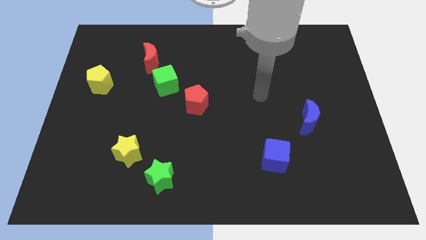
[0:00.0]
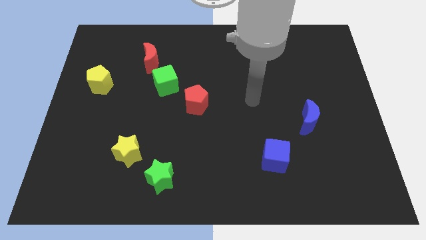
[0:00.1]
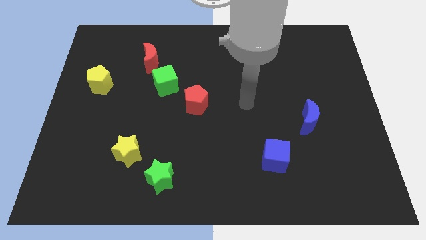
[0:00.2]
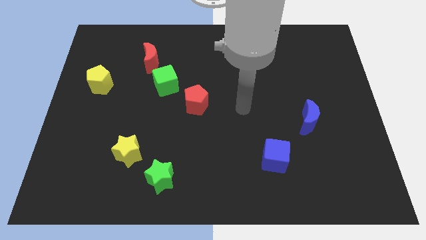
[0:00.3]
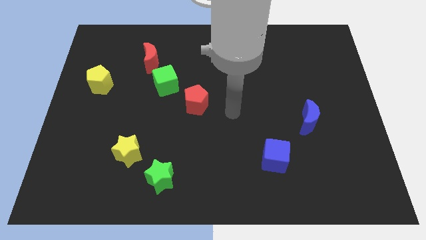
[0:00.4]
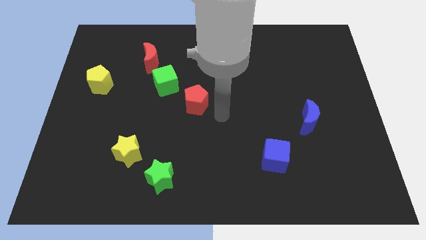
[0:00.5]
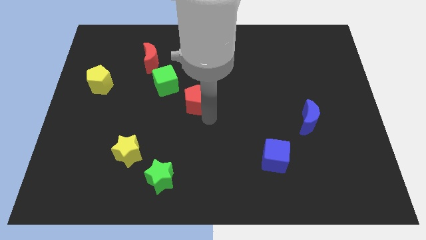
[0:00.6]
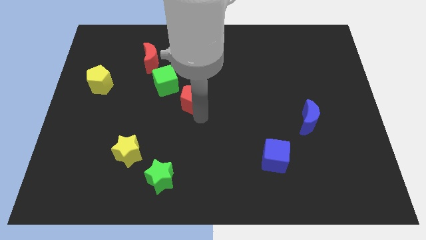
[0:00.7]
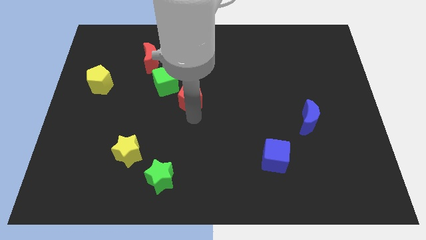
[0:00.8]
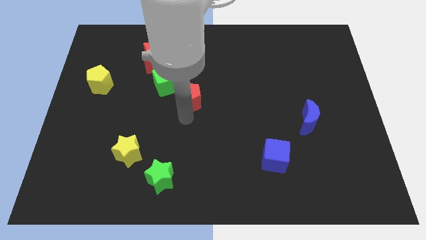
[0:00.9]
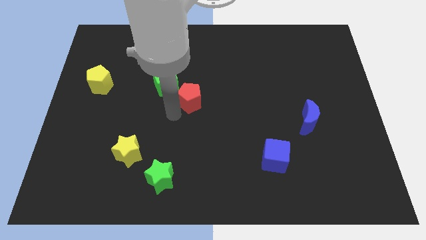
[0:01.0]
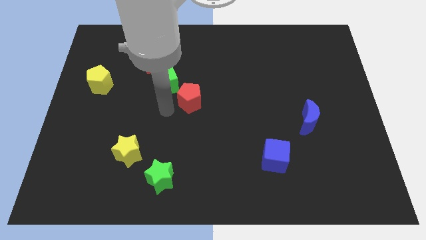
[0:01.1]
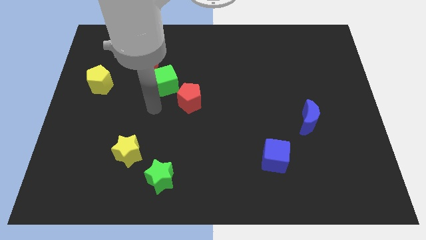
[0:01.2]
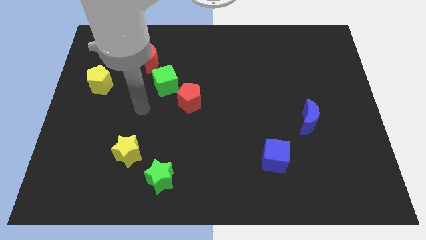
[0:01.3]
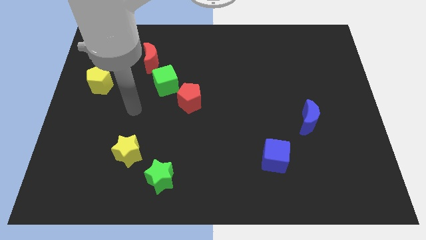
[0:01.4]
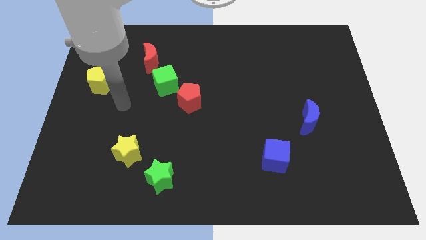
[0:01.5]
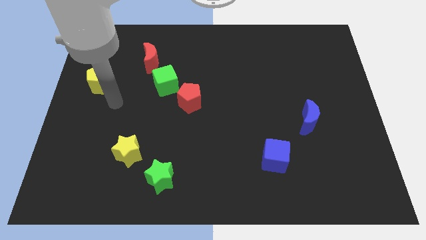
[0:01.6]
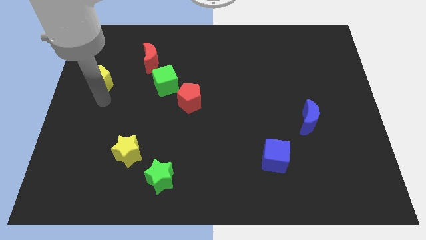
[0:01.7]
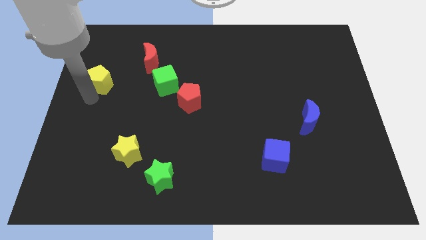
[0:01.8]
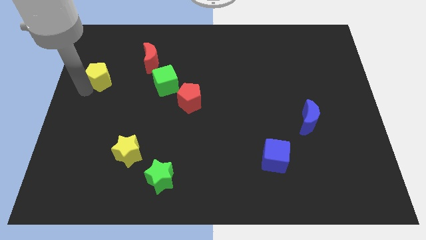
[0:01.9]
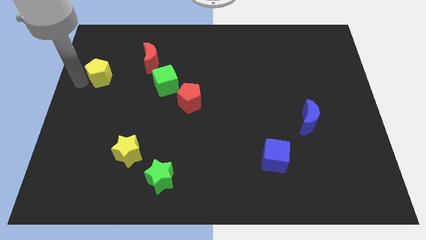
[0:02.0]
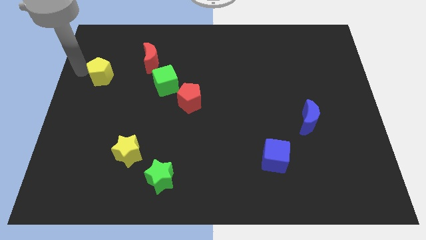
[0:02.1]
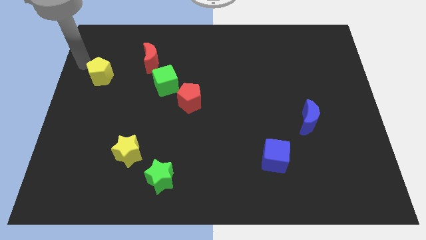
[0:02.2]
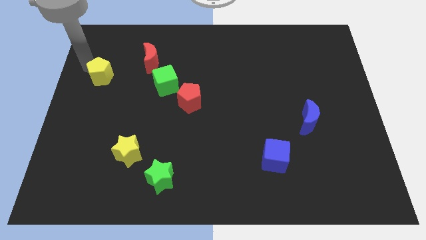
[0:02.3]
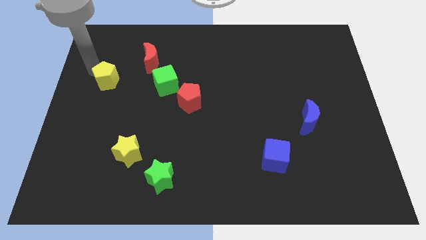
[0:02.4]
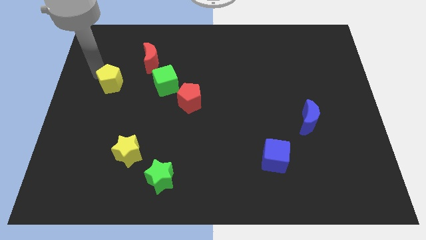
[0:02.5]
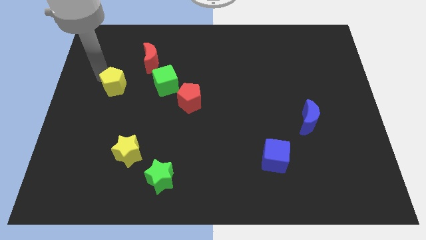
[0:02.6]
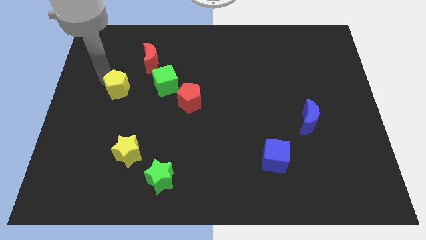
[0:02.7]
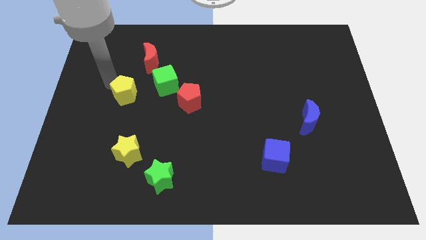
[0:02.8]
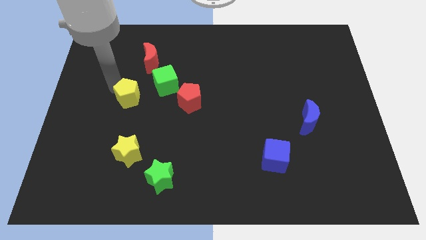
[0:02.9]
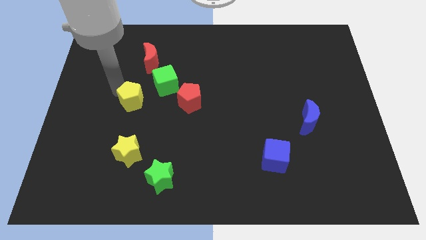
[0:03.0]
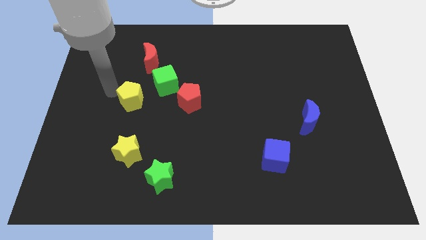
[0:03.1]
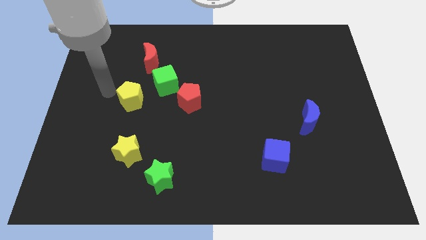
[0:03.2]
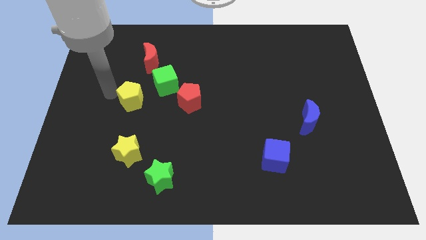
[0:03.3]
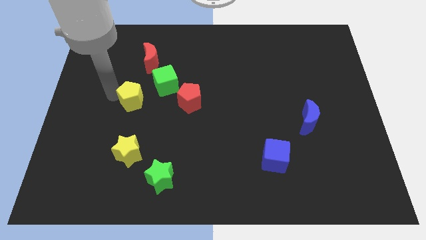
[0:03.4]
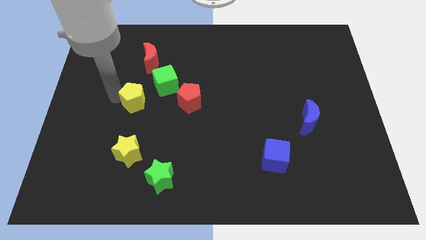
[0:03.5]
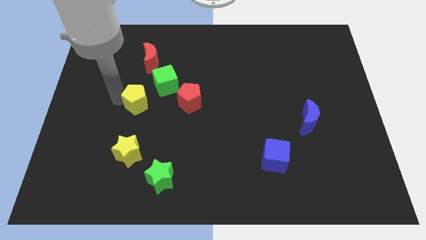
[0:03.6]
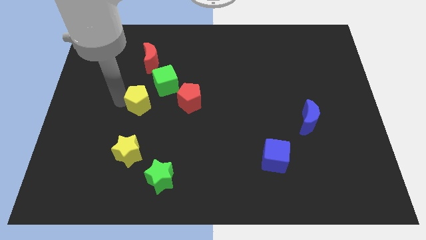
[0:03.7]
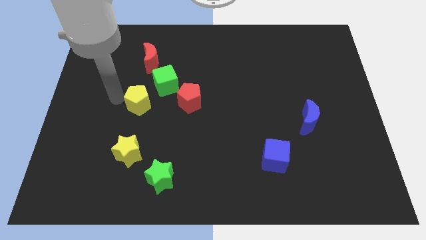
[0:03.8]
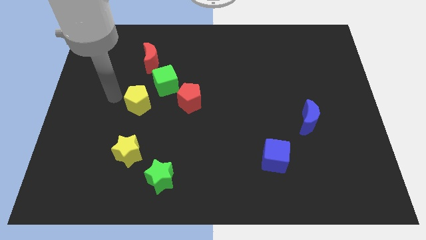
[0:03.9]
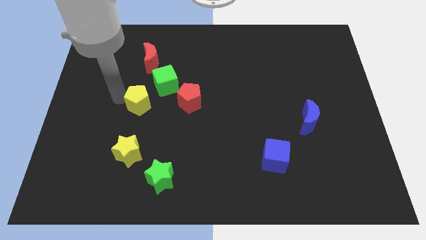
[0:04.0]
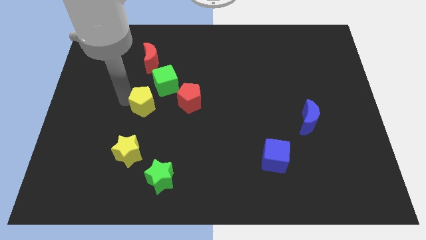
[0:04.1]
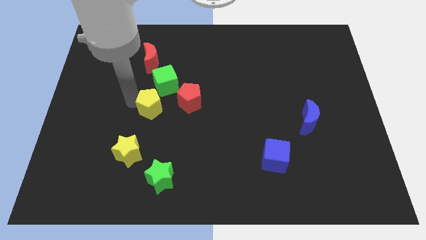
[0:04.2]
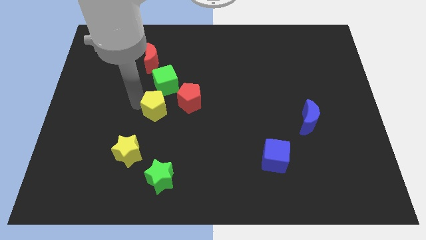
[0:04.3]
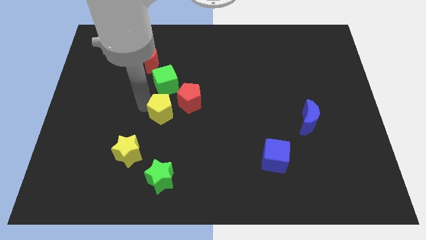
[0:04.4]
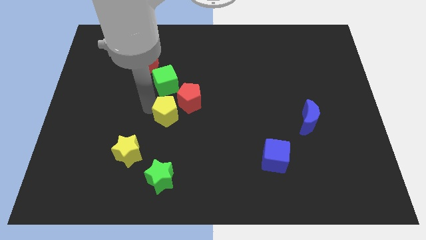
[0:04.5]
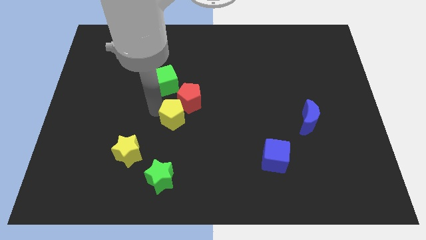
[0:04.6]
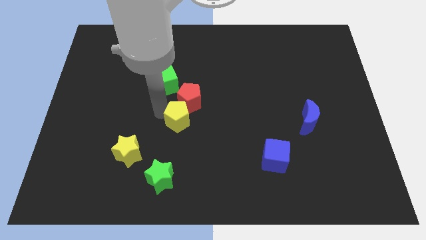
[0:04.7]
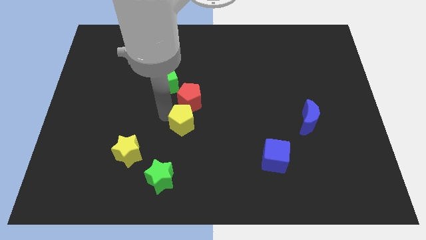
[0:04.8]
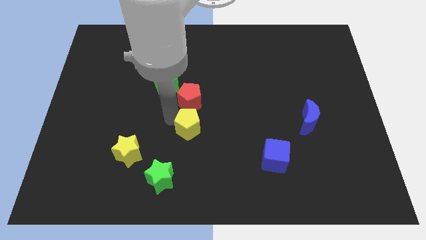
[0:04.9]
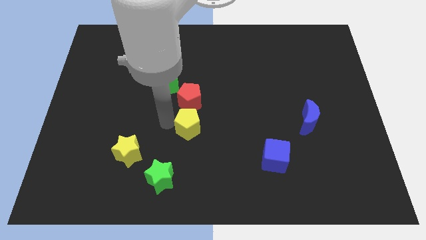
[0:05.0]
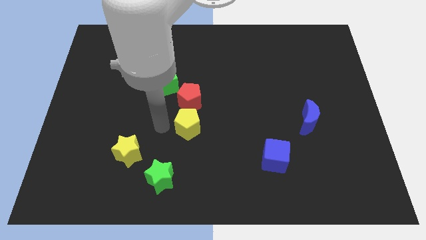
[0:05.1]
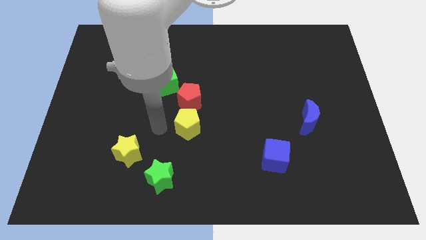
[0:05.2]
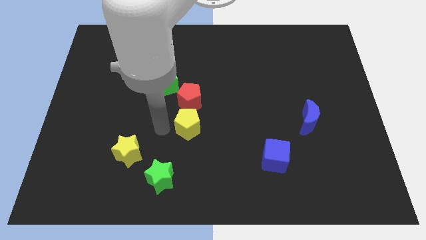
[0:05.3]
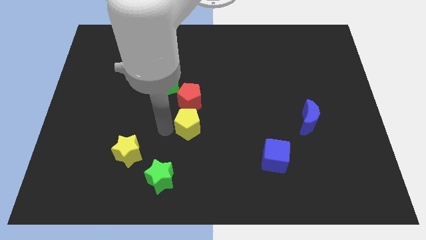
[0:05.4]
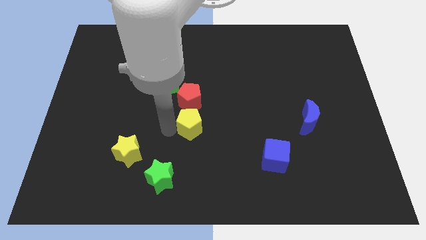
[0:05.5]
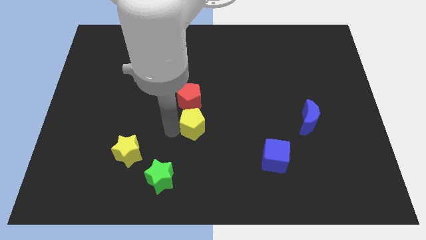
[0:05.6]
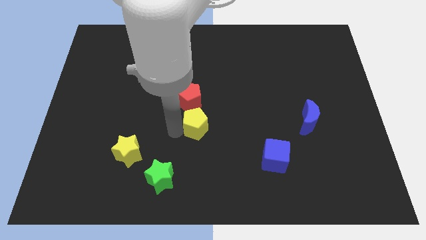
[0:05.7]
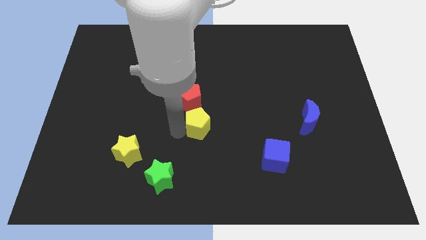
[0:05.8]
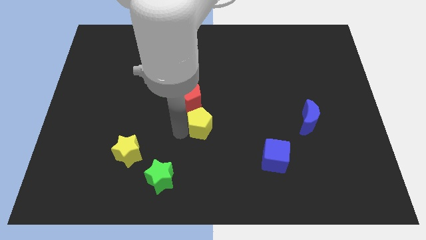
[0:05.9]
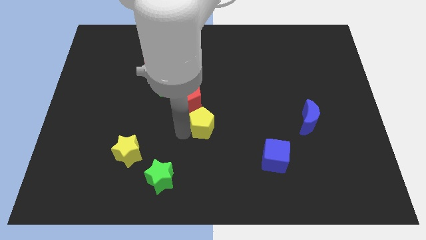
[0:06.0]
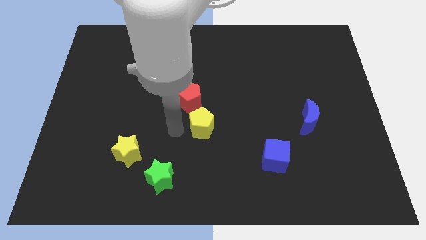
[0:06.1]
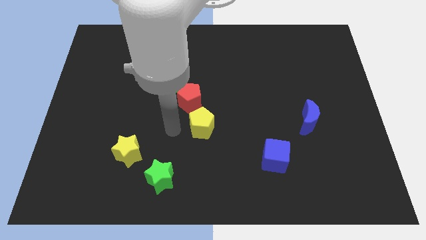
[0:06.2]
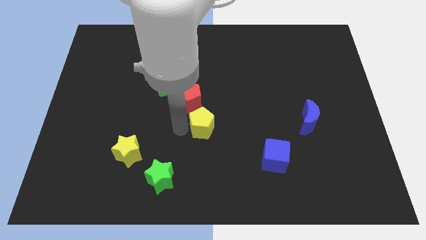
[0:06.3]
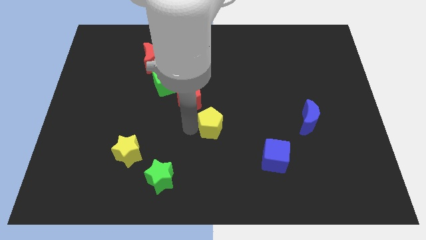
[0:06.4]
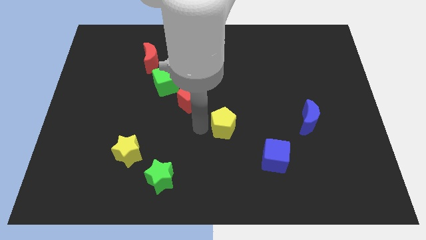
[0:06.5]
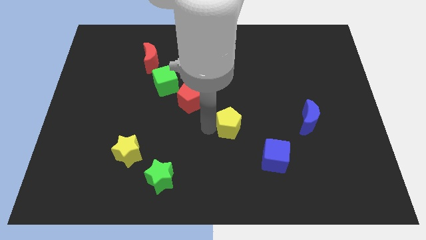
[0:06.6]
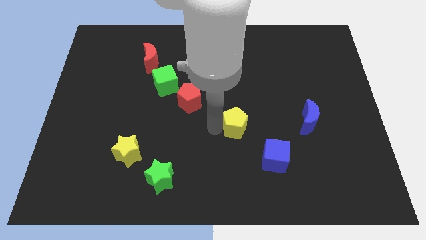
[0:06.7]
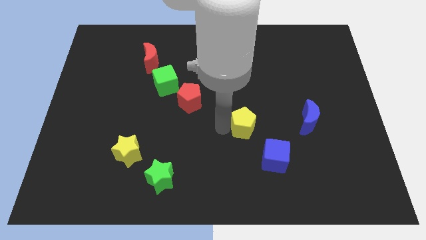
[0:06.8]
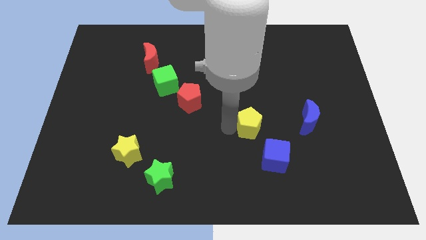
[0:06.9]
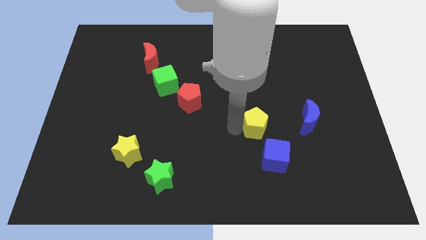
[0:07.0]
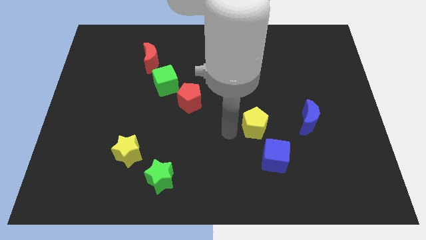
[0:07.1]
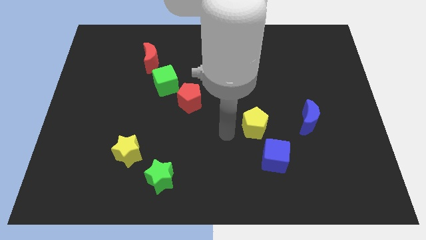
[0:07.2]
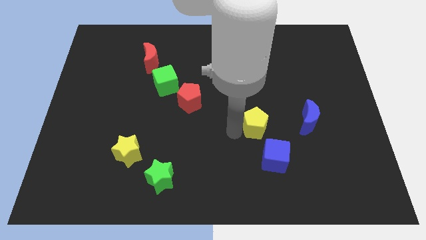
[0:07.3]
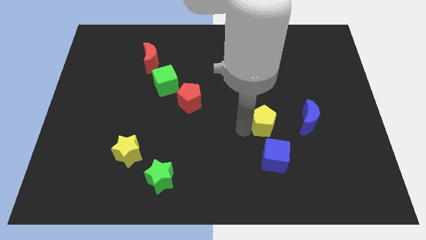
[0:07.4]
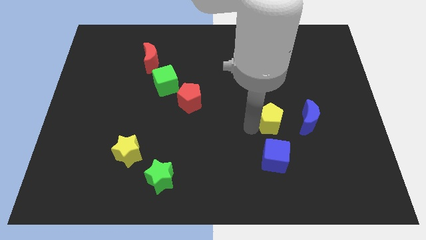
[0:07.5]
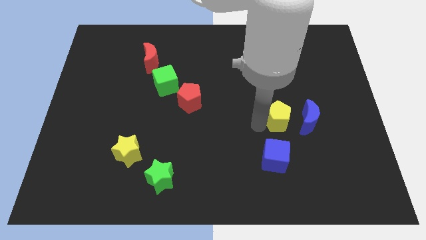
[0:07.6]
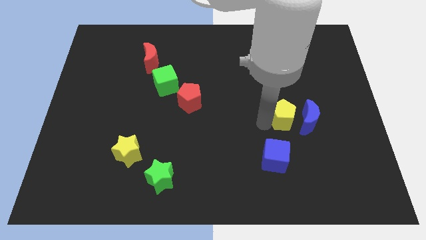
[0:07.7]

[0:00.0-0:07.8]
put the yellow pentagon close to the blue moon
